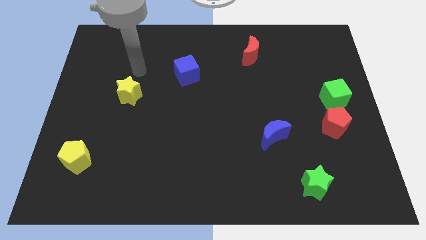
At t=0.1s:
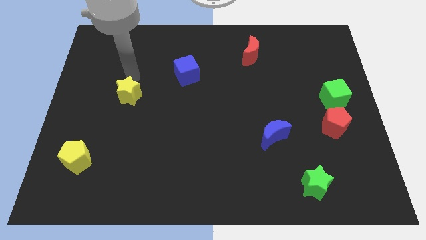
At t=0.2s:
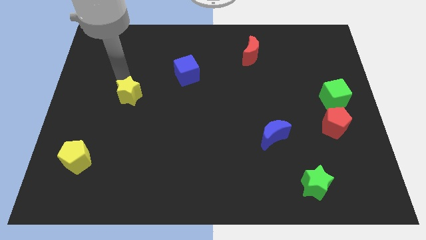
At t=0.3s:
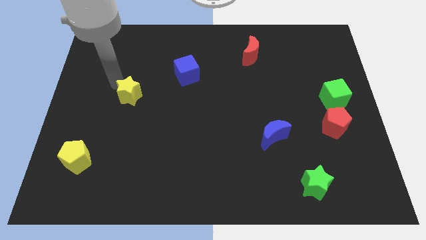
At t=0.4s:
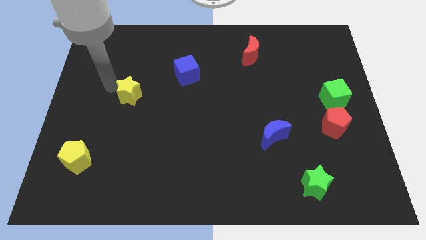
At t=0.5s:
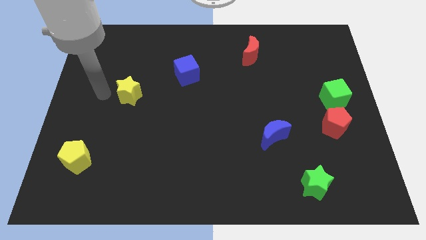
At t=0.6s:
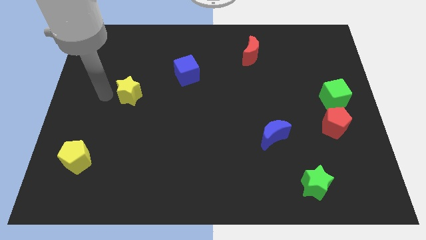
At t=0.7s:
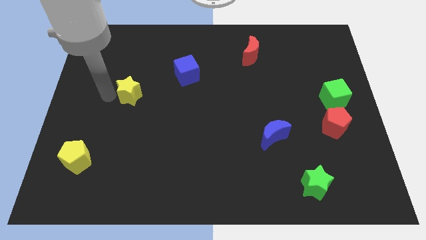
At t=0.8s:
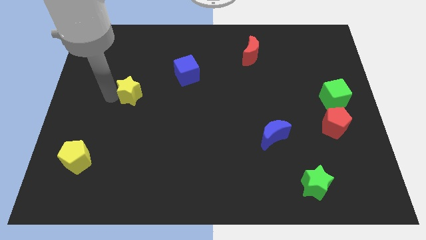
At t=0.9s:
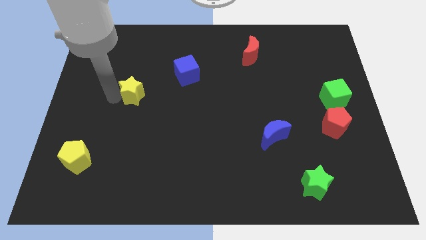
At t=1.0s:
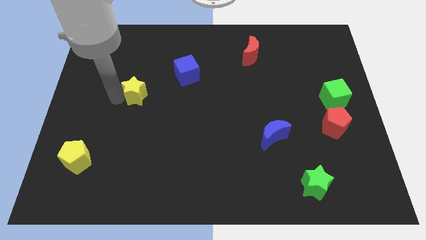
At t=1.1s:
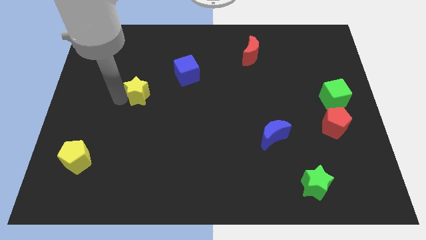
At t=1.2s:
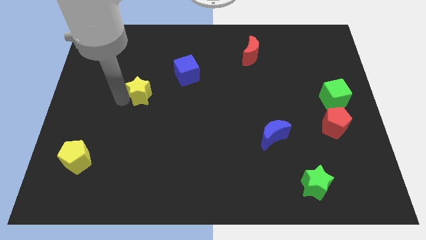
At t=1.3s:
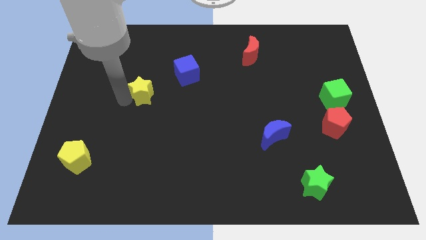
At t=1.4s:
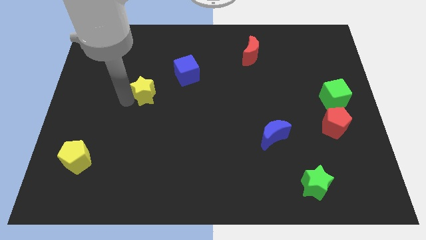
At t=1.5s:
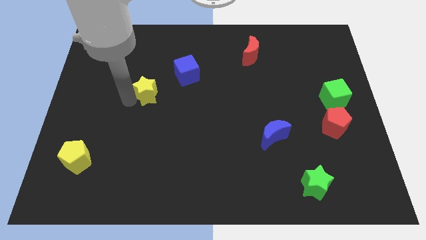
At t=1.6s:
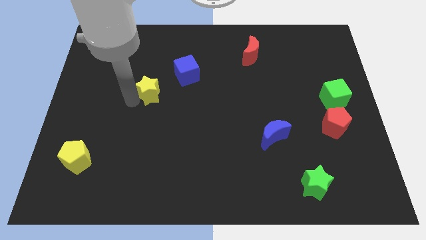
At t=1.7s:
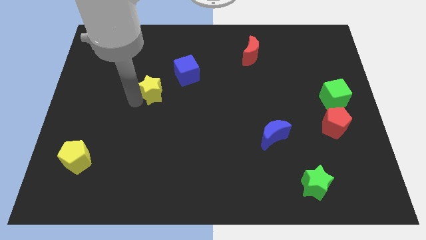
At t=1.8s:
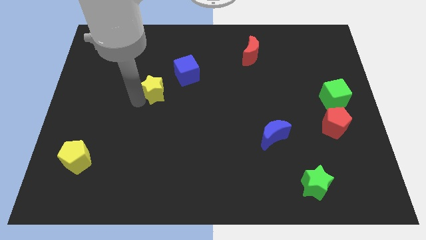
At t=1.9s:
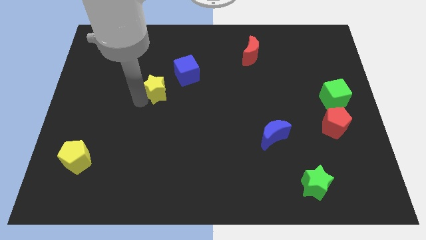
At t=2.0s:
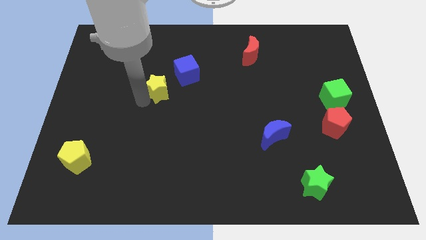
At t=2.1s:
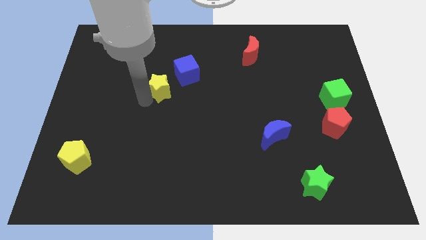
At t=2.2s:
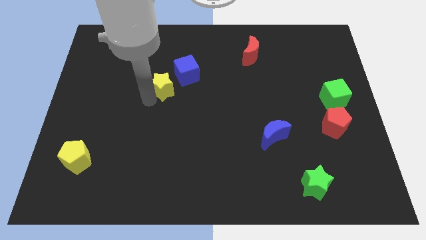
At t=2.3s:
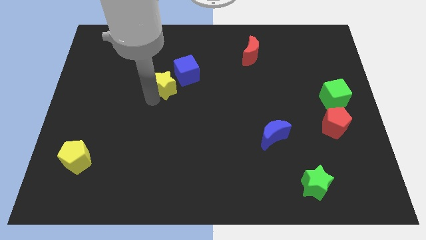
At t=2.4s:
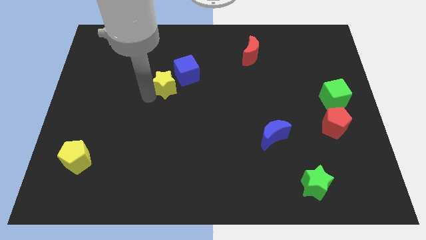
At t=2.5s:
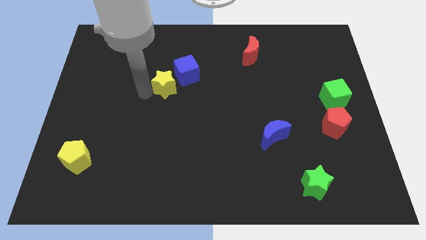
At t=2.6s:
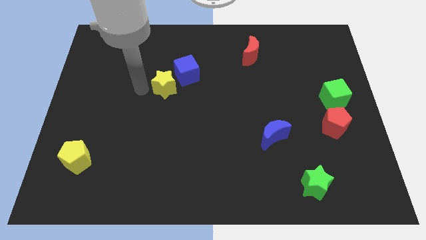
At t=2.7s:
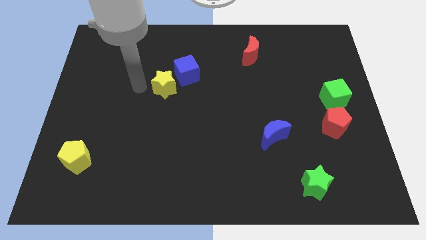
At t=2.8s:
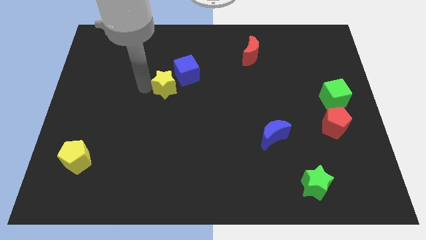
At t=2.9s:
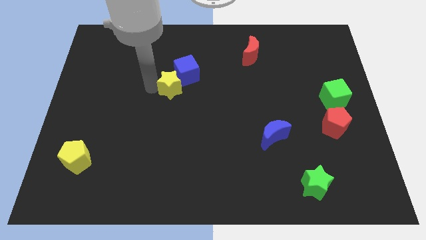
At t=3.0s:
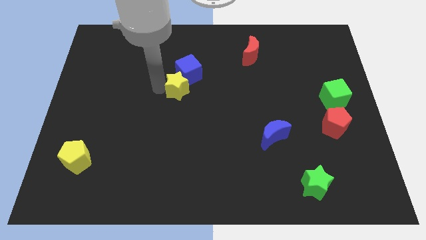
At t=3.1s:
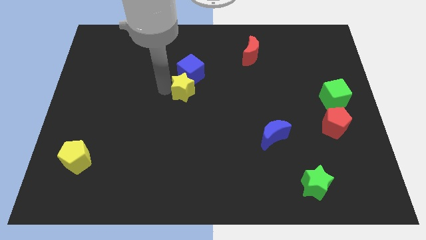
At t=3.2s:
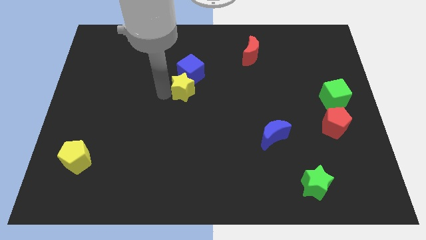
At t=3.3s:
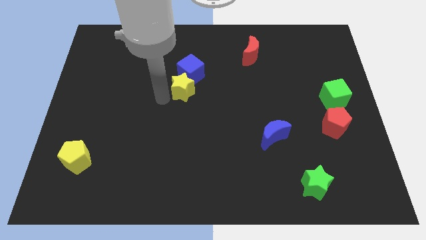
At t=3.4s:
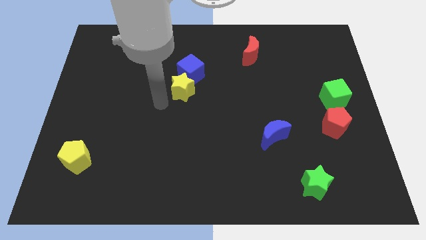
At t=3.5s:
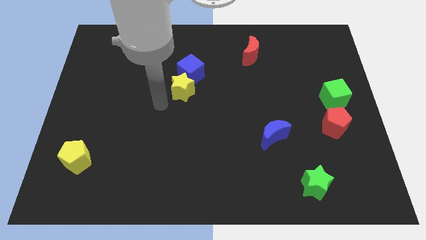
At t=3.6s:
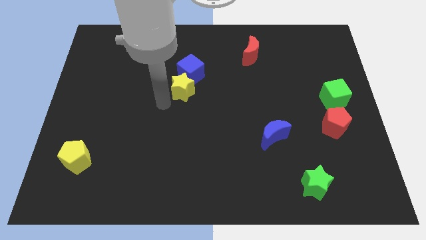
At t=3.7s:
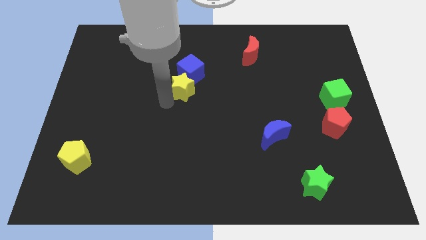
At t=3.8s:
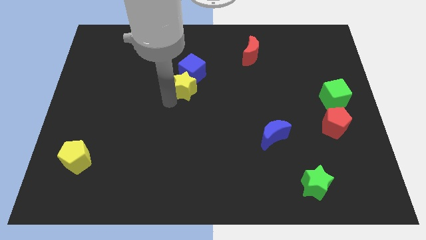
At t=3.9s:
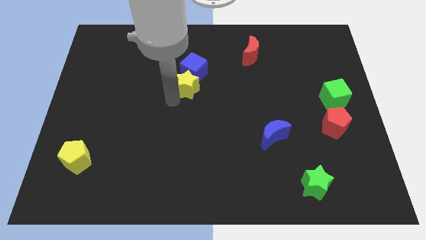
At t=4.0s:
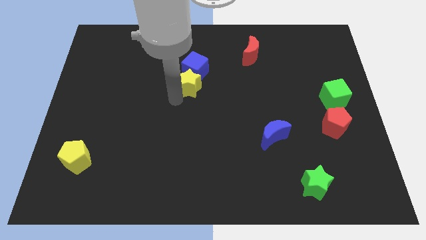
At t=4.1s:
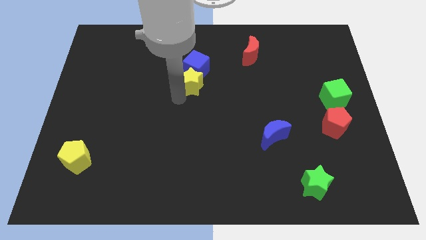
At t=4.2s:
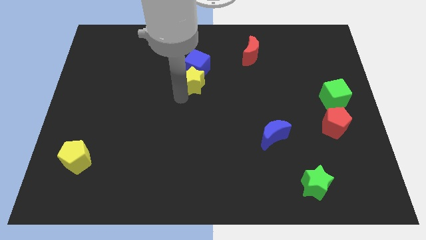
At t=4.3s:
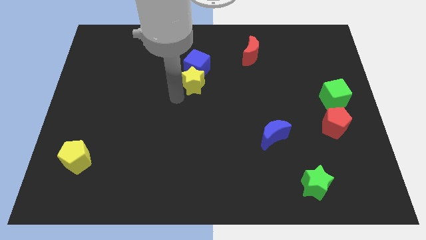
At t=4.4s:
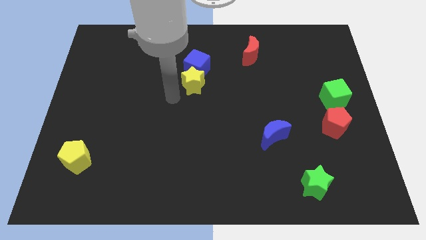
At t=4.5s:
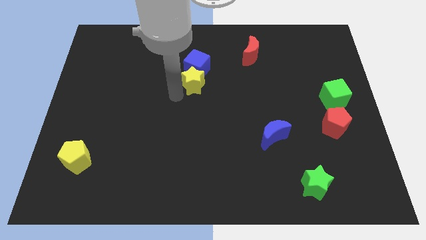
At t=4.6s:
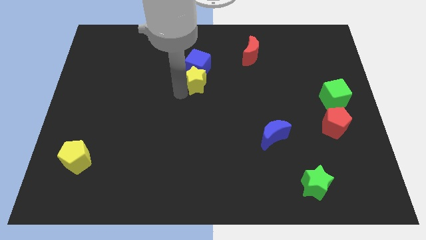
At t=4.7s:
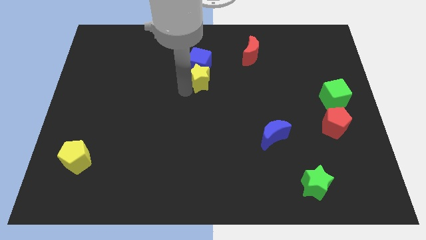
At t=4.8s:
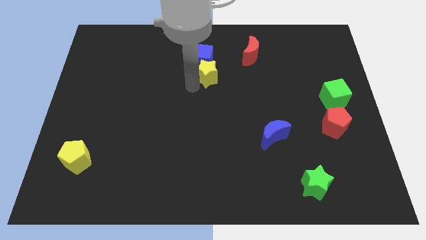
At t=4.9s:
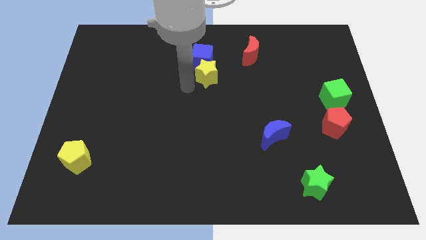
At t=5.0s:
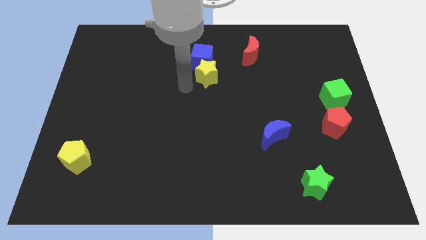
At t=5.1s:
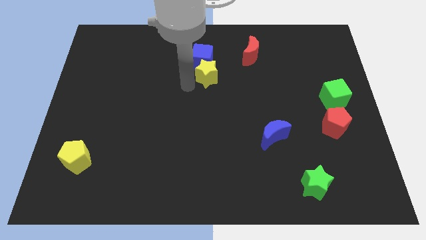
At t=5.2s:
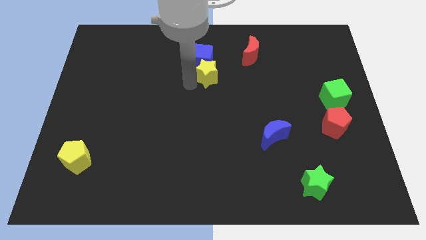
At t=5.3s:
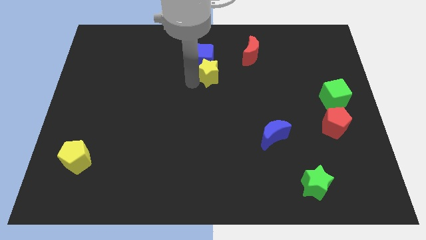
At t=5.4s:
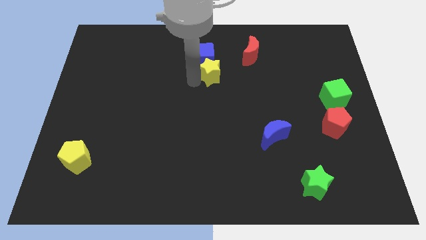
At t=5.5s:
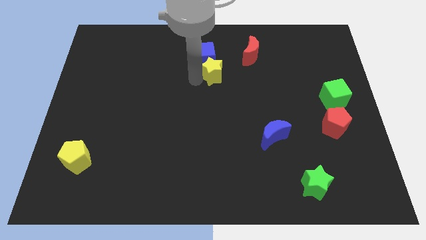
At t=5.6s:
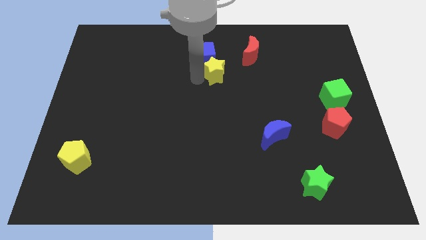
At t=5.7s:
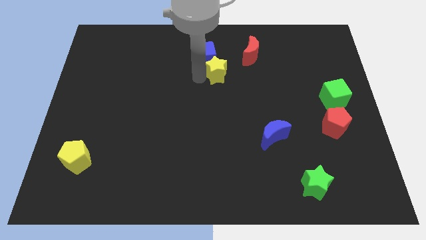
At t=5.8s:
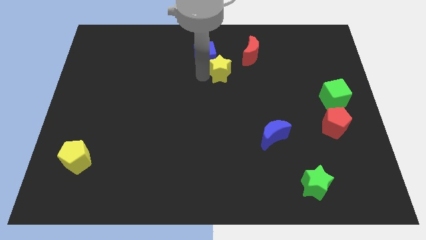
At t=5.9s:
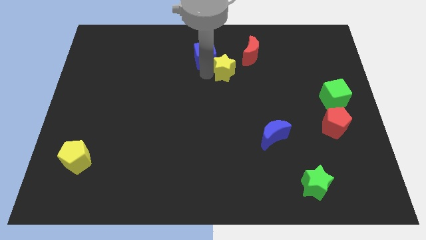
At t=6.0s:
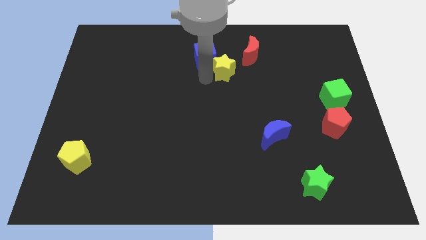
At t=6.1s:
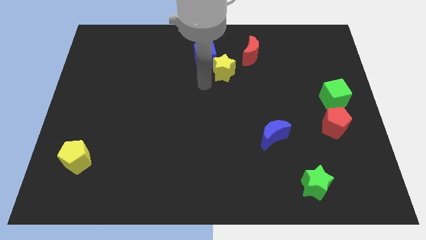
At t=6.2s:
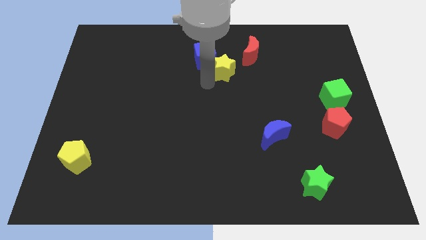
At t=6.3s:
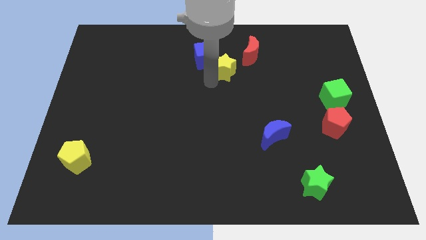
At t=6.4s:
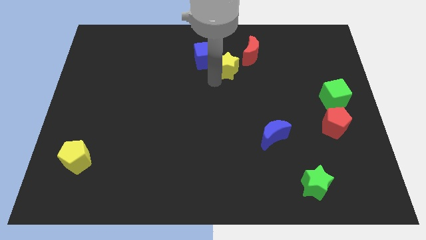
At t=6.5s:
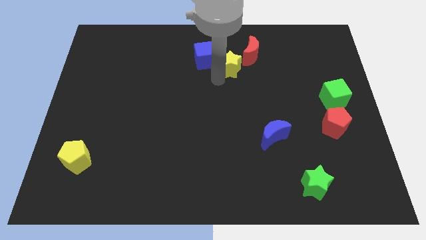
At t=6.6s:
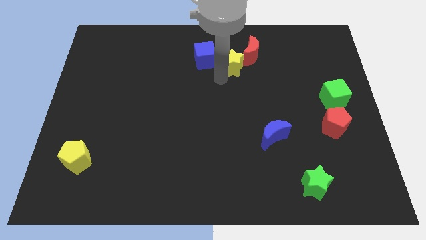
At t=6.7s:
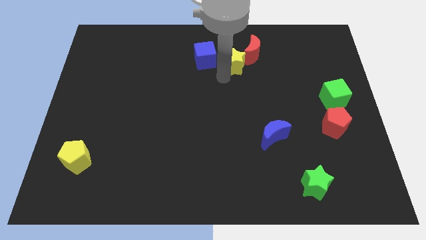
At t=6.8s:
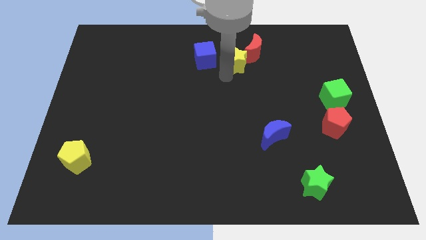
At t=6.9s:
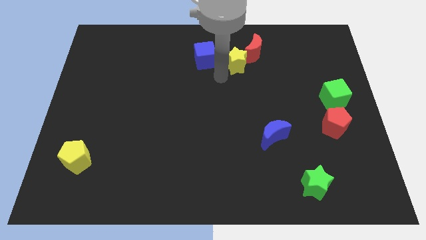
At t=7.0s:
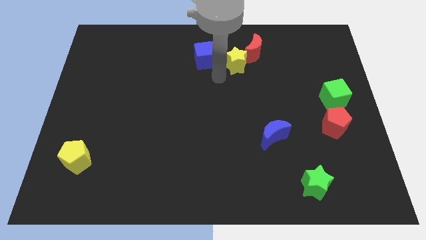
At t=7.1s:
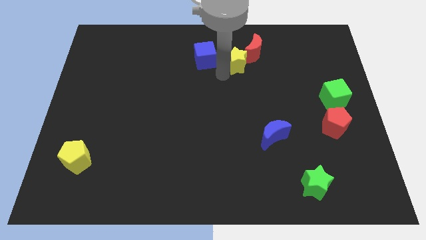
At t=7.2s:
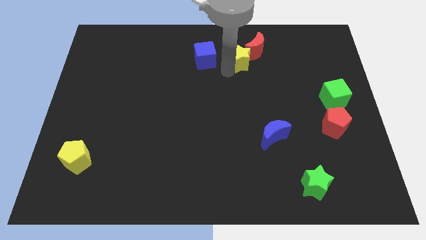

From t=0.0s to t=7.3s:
push the yellow star towards the red moon

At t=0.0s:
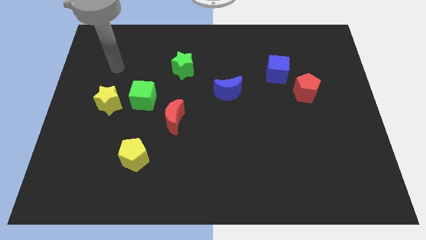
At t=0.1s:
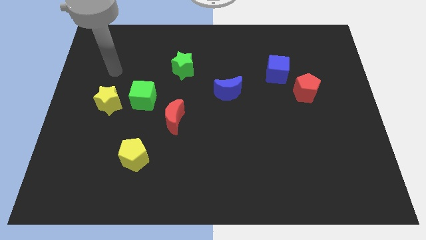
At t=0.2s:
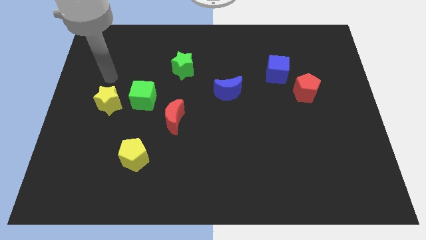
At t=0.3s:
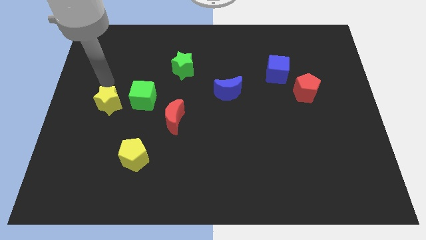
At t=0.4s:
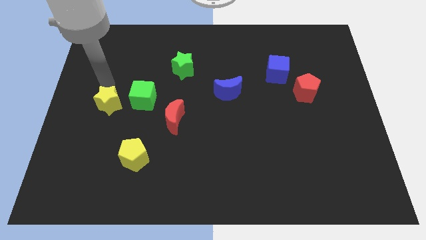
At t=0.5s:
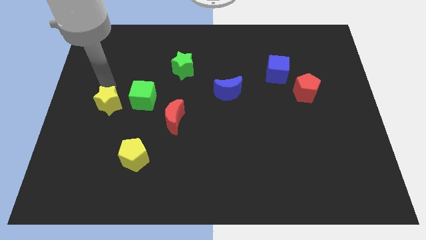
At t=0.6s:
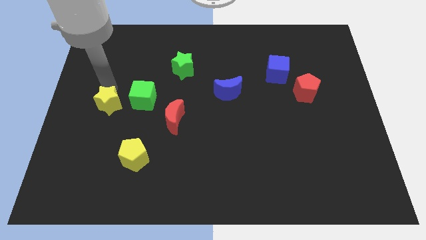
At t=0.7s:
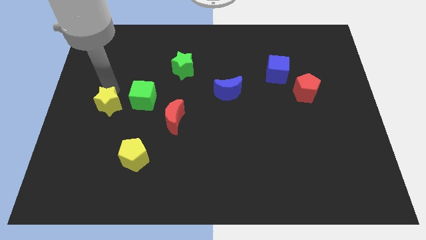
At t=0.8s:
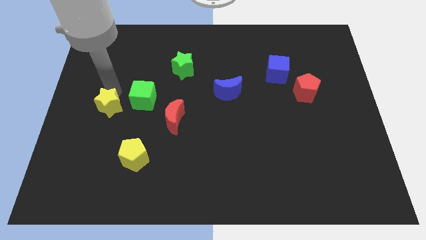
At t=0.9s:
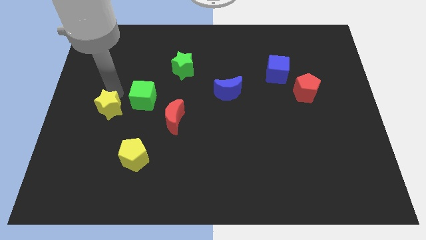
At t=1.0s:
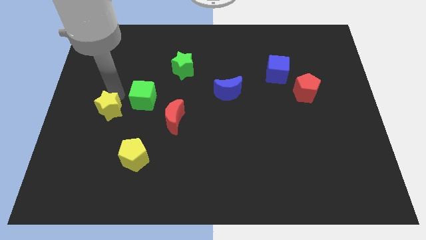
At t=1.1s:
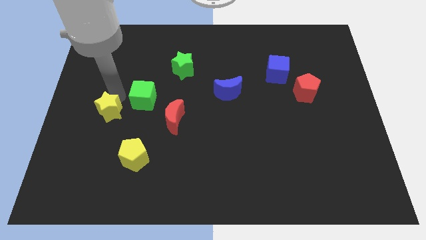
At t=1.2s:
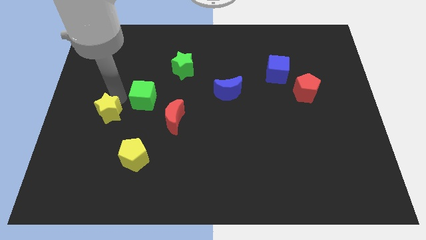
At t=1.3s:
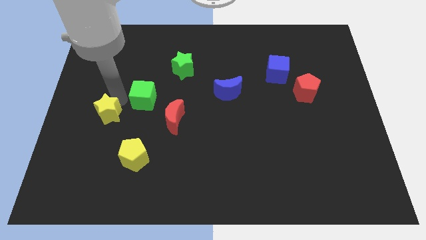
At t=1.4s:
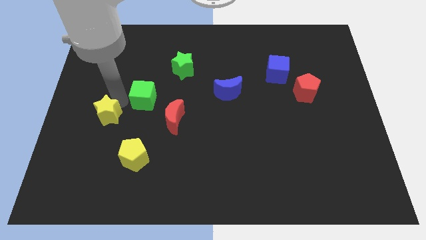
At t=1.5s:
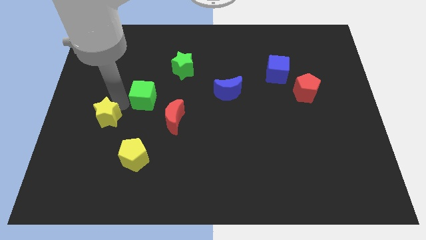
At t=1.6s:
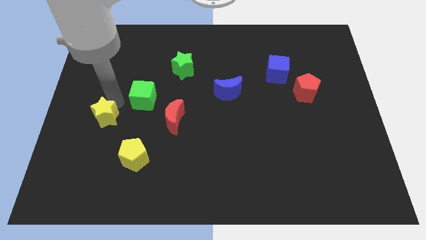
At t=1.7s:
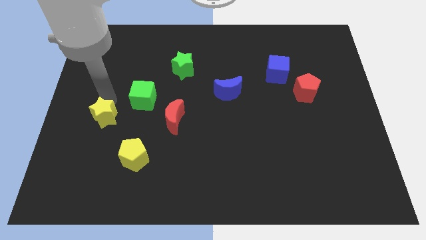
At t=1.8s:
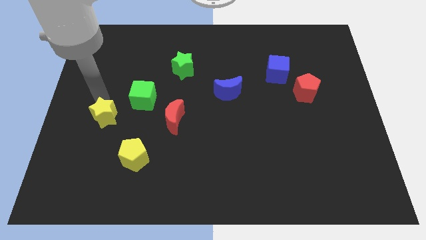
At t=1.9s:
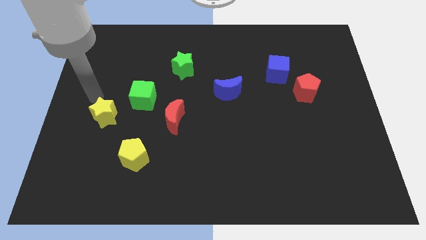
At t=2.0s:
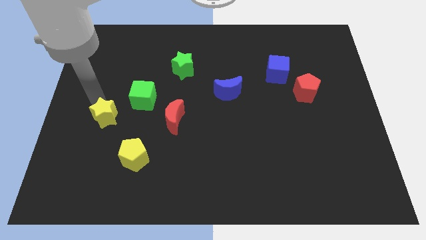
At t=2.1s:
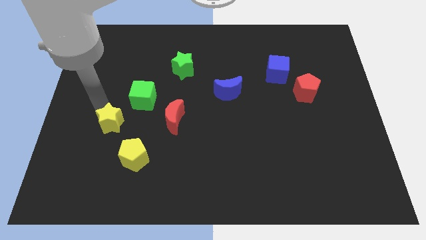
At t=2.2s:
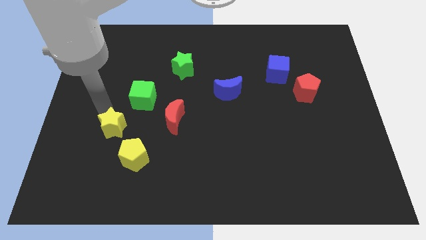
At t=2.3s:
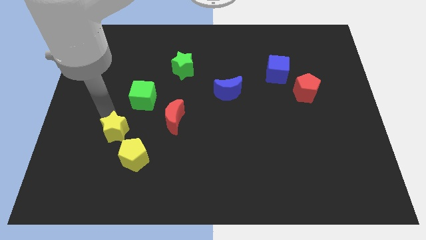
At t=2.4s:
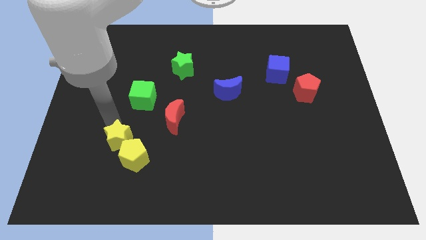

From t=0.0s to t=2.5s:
push the yellow star to the yellow pentagon
